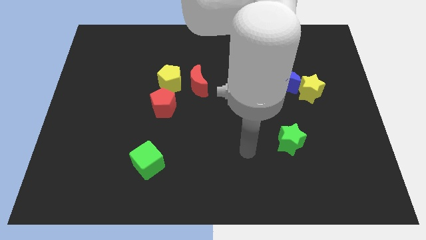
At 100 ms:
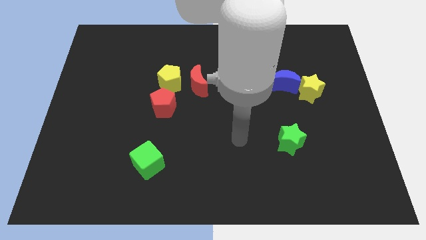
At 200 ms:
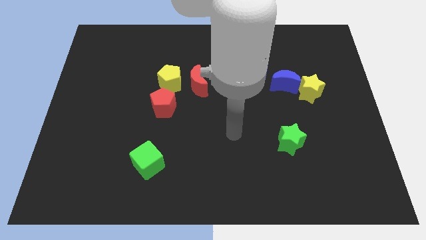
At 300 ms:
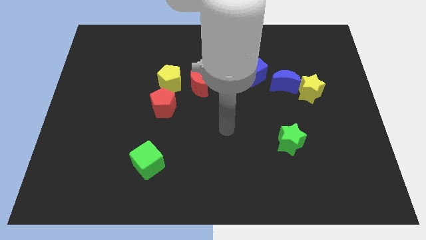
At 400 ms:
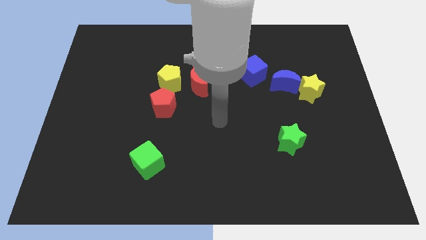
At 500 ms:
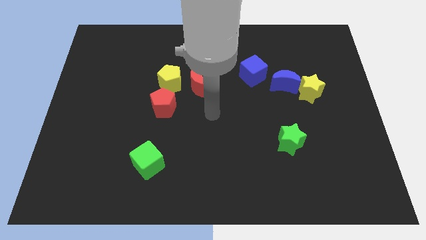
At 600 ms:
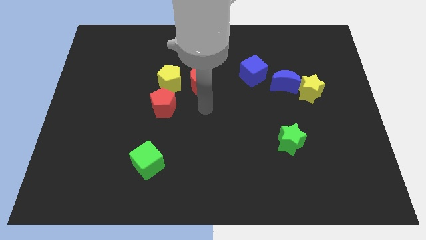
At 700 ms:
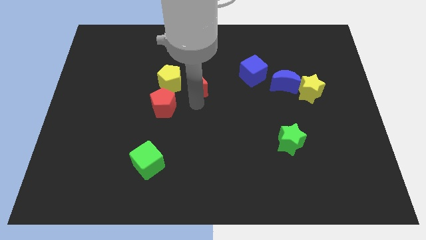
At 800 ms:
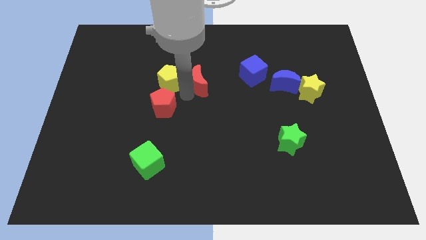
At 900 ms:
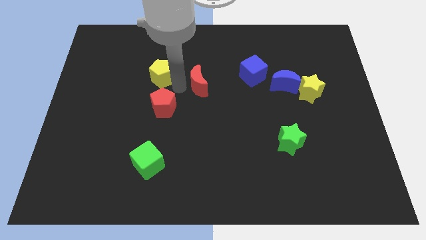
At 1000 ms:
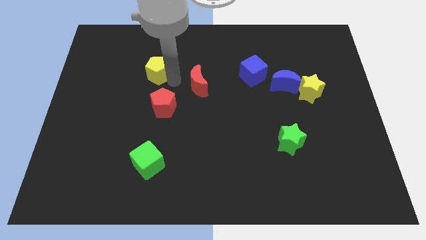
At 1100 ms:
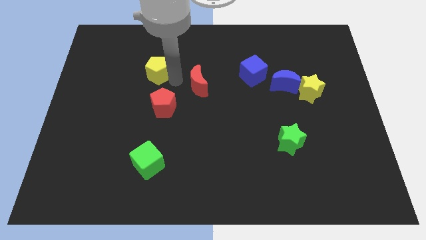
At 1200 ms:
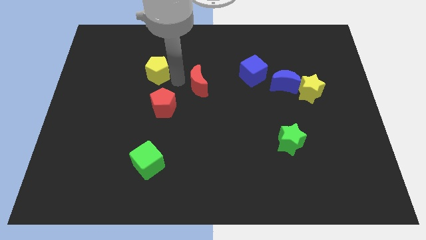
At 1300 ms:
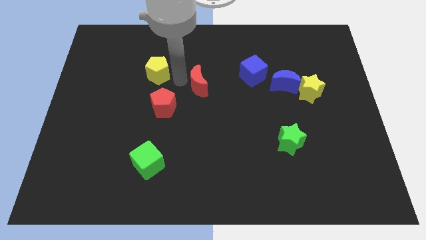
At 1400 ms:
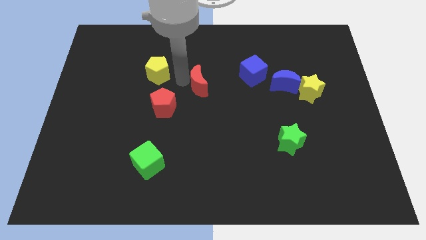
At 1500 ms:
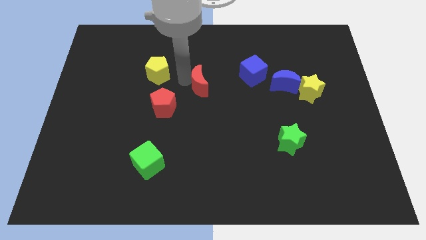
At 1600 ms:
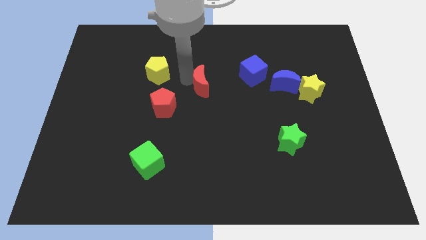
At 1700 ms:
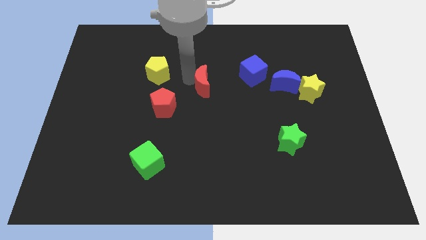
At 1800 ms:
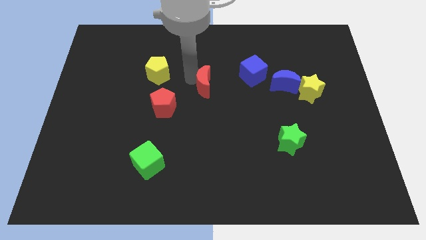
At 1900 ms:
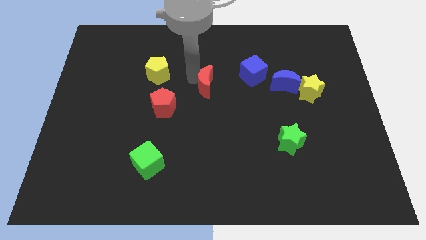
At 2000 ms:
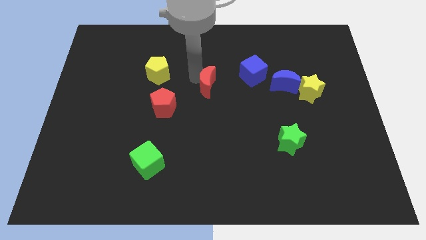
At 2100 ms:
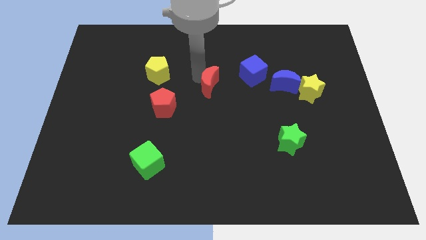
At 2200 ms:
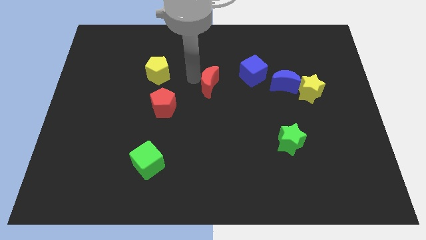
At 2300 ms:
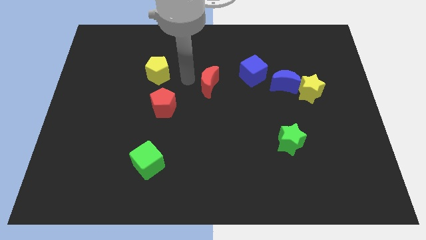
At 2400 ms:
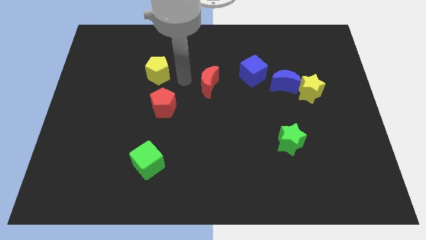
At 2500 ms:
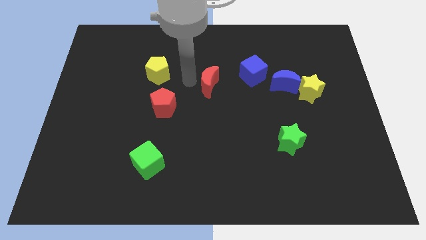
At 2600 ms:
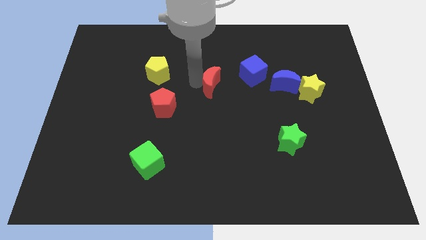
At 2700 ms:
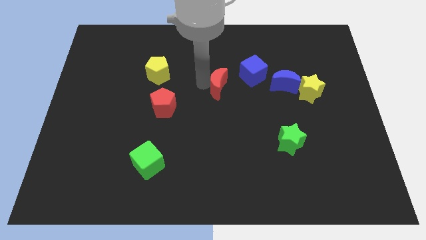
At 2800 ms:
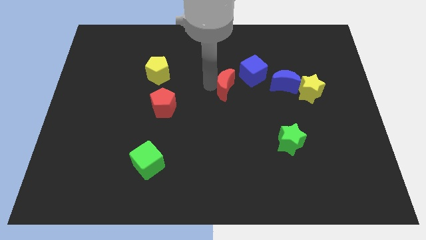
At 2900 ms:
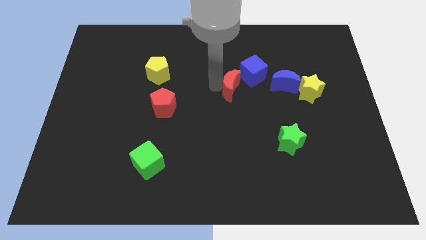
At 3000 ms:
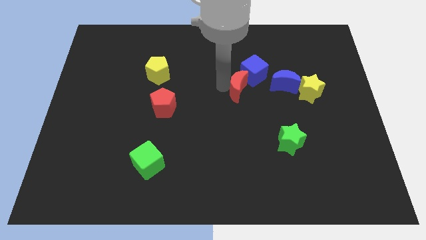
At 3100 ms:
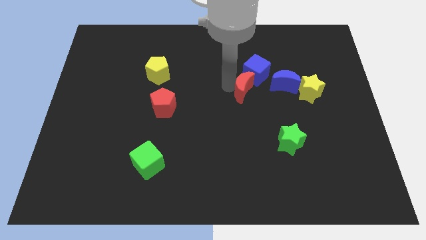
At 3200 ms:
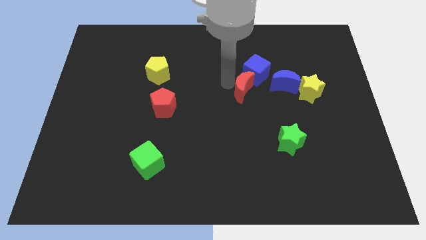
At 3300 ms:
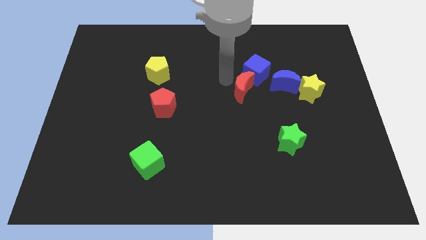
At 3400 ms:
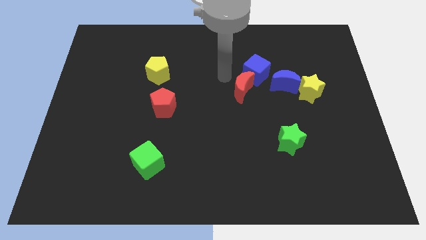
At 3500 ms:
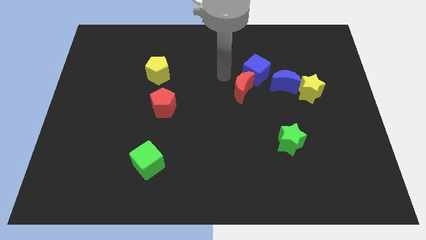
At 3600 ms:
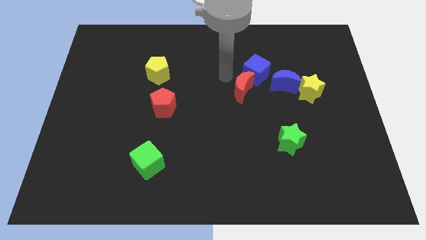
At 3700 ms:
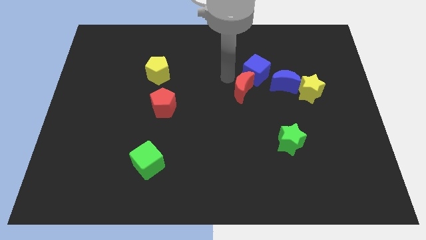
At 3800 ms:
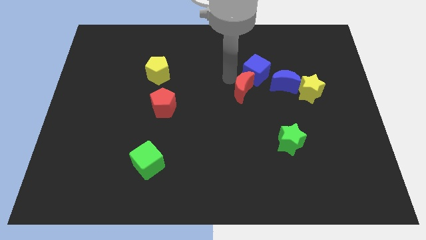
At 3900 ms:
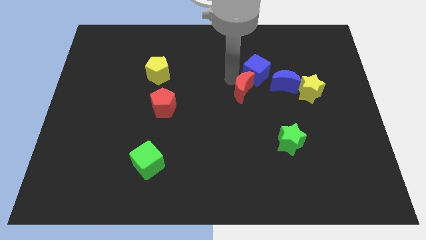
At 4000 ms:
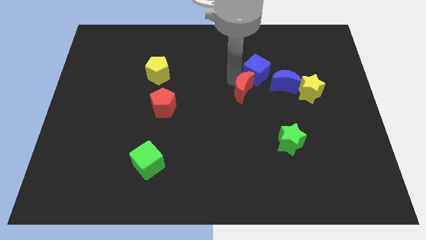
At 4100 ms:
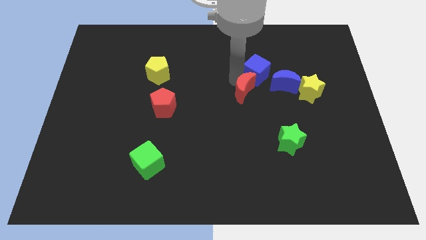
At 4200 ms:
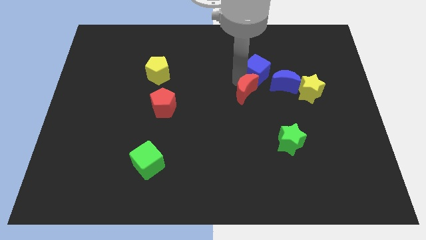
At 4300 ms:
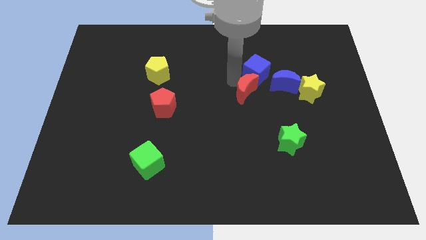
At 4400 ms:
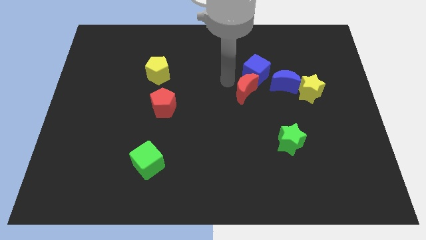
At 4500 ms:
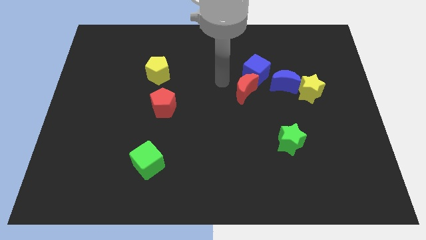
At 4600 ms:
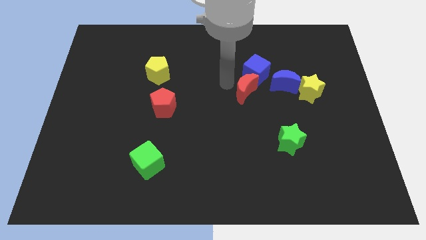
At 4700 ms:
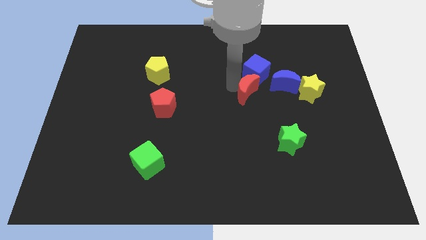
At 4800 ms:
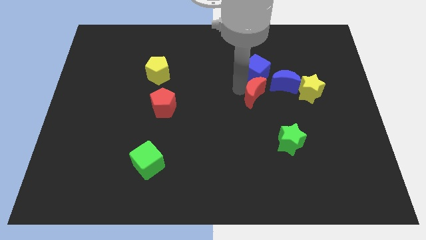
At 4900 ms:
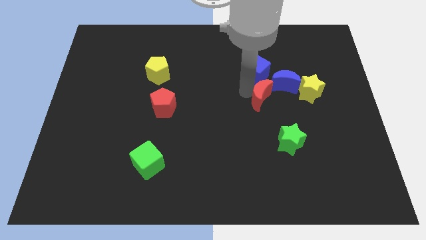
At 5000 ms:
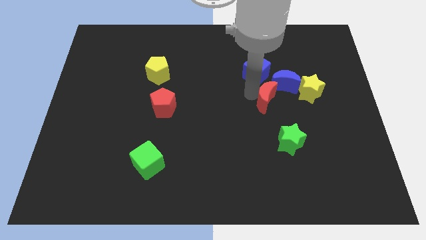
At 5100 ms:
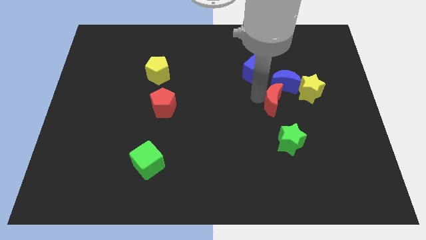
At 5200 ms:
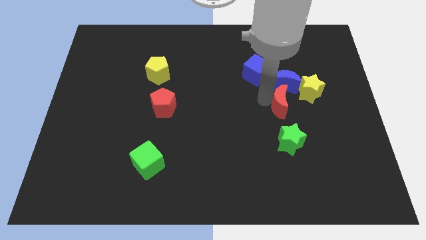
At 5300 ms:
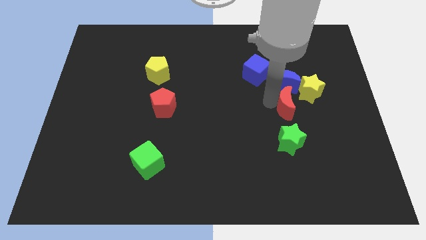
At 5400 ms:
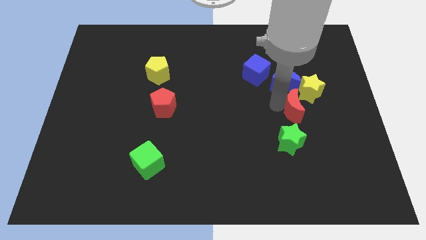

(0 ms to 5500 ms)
slide the red moon to the right

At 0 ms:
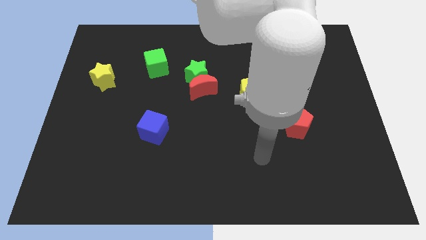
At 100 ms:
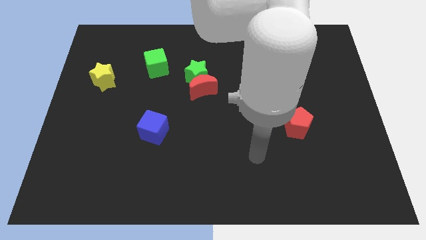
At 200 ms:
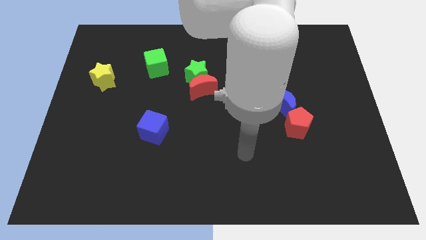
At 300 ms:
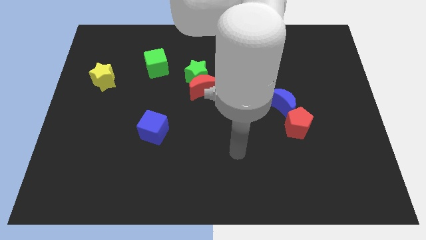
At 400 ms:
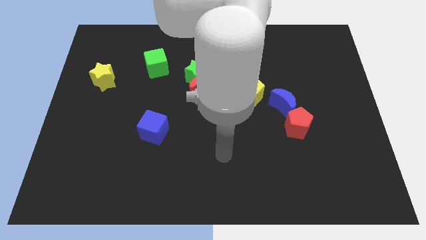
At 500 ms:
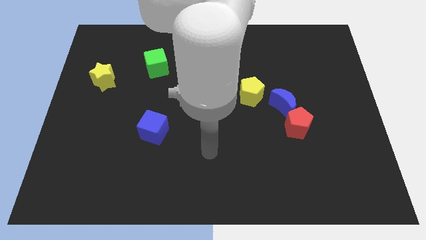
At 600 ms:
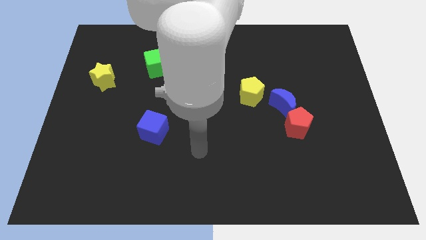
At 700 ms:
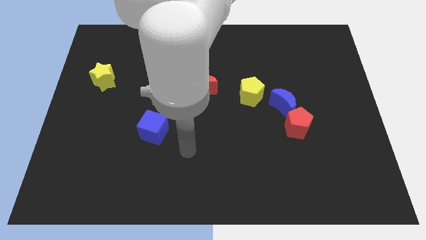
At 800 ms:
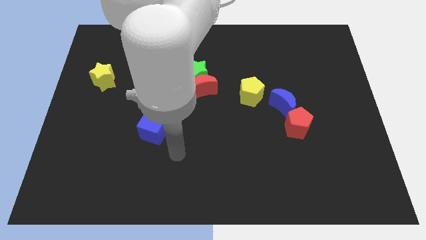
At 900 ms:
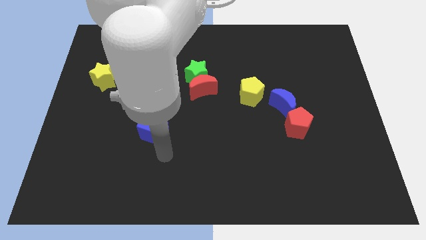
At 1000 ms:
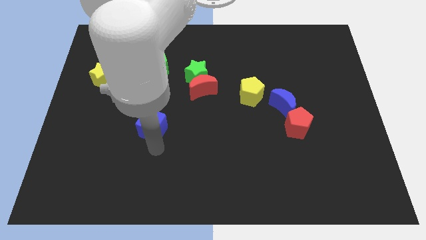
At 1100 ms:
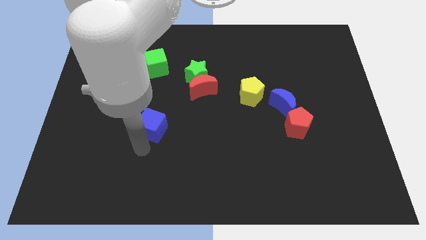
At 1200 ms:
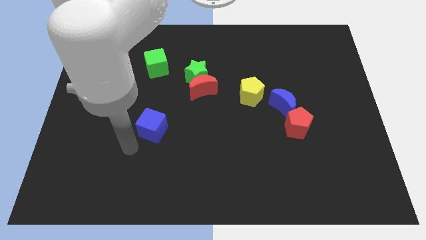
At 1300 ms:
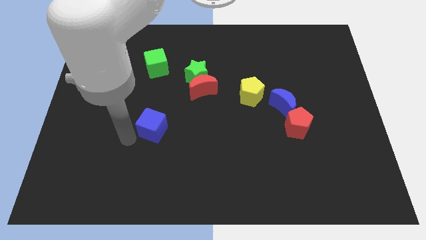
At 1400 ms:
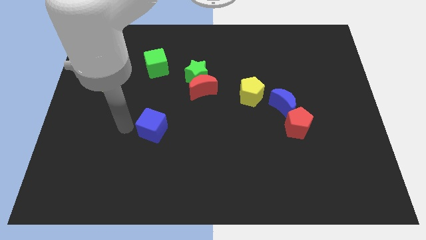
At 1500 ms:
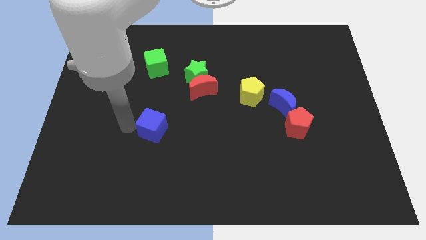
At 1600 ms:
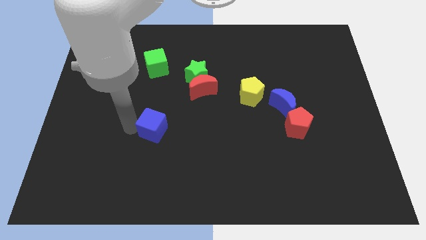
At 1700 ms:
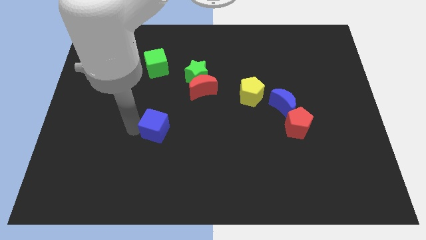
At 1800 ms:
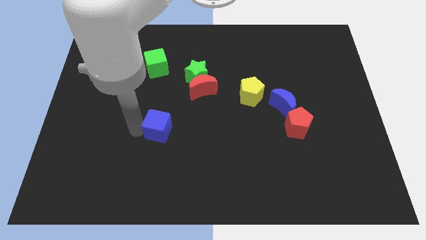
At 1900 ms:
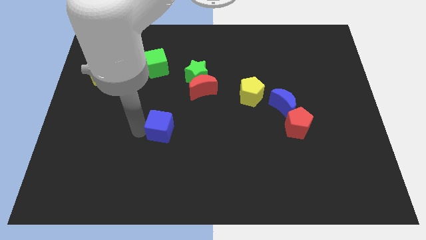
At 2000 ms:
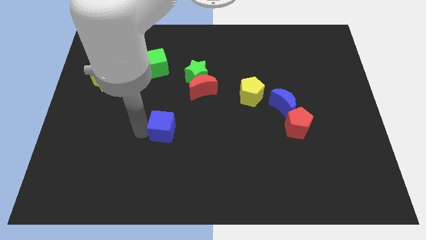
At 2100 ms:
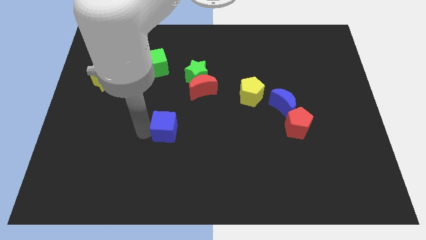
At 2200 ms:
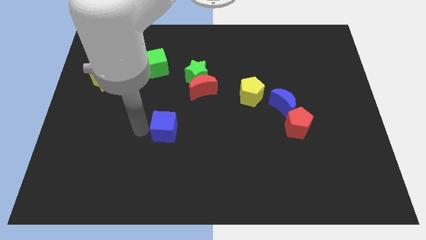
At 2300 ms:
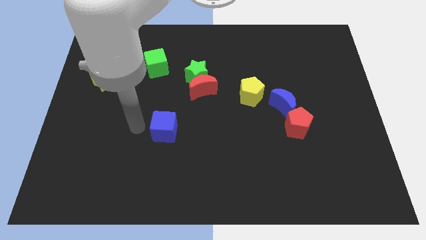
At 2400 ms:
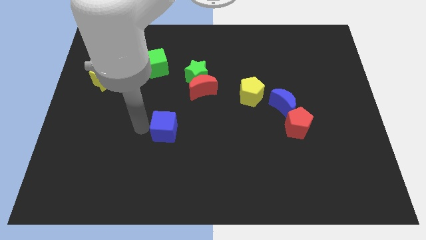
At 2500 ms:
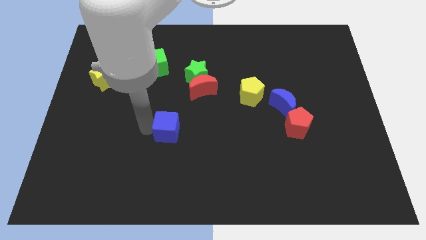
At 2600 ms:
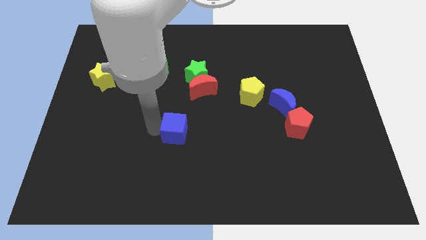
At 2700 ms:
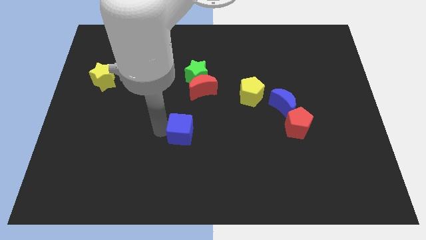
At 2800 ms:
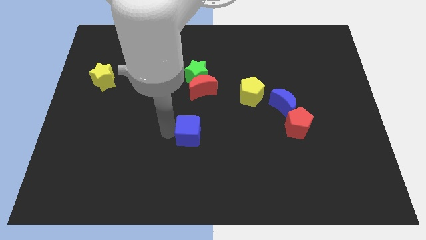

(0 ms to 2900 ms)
push the blue cube a little bit right
